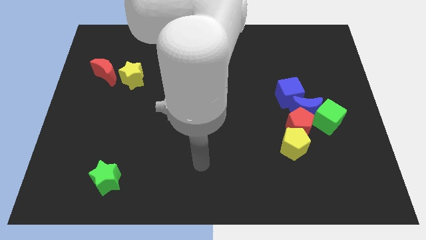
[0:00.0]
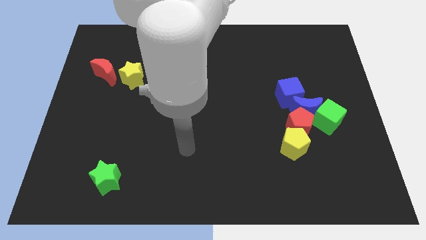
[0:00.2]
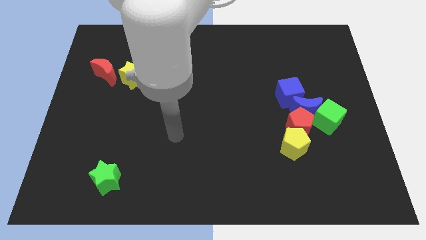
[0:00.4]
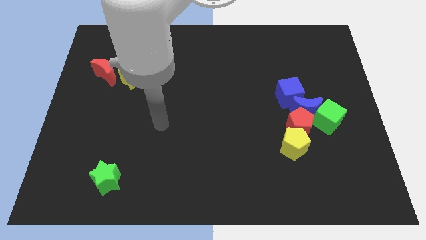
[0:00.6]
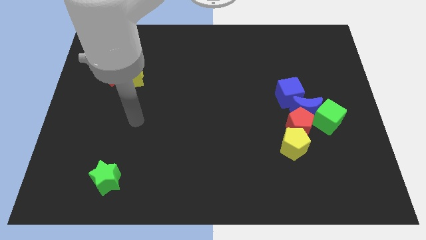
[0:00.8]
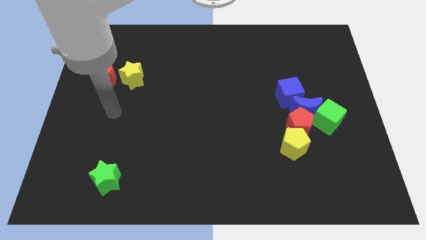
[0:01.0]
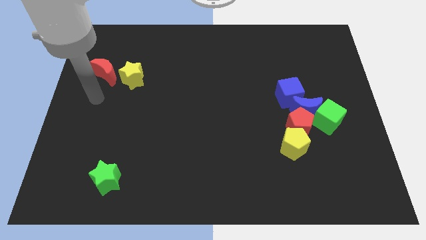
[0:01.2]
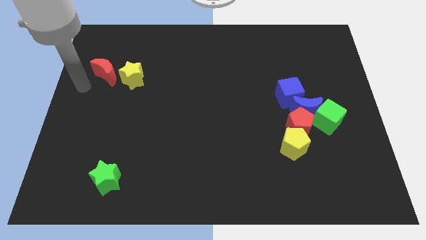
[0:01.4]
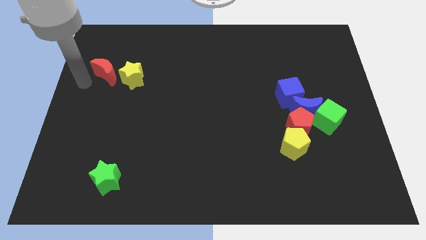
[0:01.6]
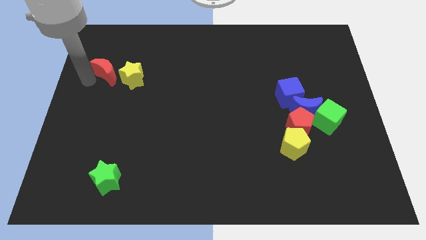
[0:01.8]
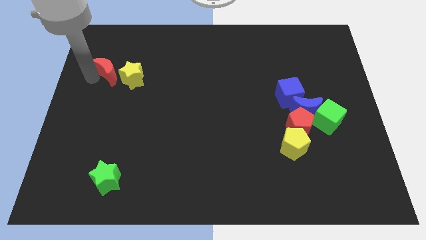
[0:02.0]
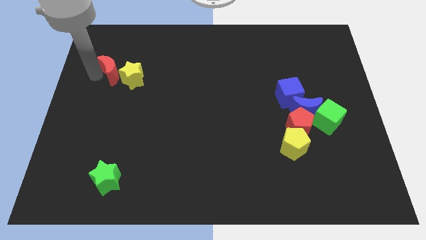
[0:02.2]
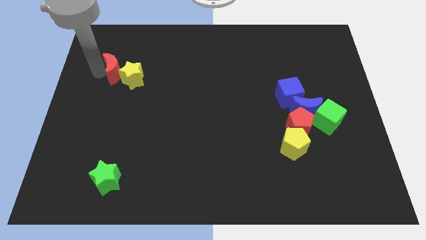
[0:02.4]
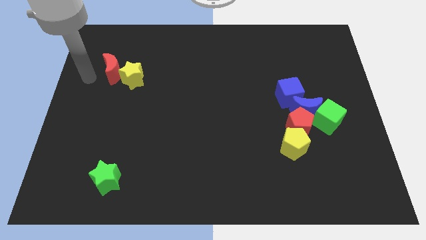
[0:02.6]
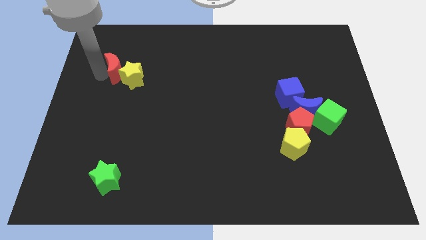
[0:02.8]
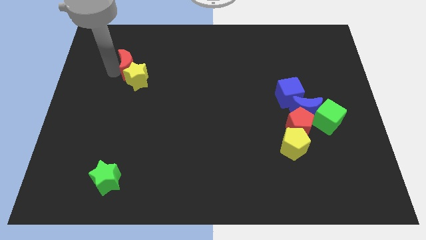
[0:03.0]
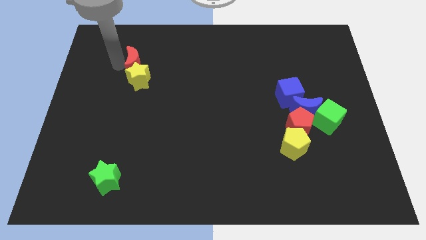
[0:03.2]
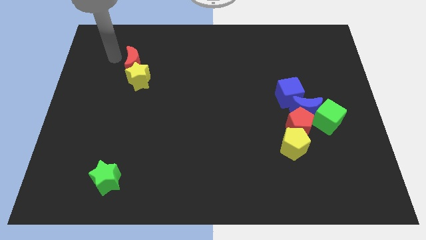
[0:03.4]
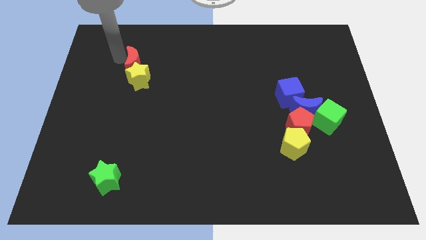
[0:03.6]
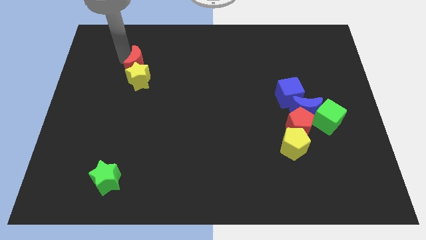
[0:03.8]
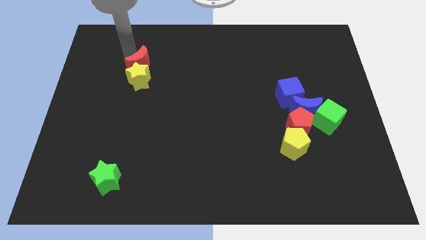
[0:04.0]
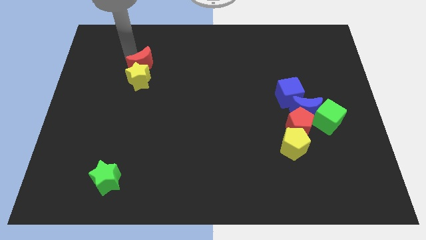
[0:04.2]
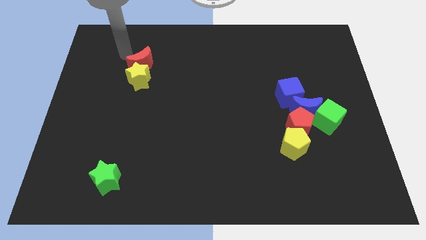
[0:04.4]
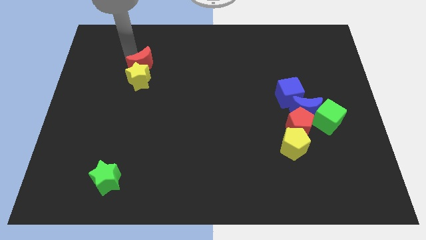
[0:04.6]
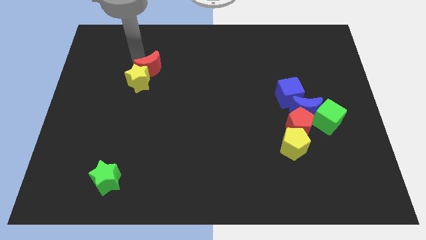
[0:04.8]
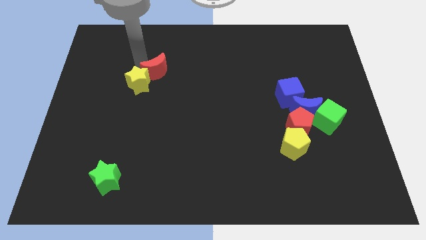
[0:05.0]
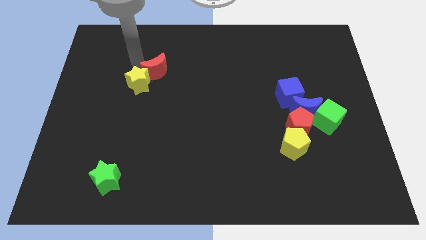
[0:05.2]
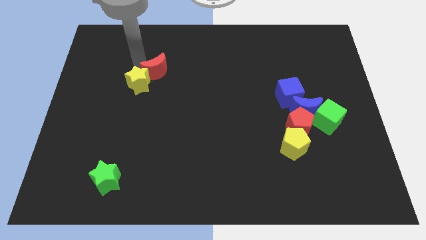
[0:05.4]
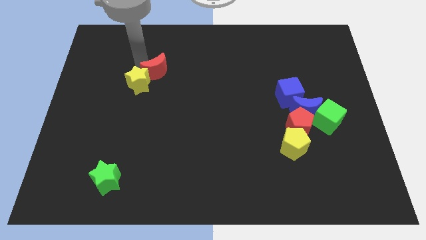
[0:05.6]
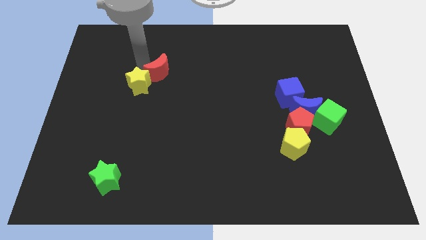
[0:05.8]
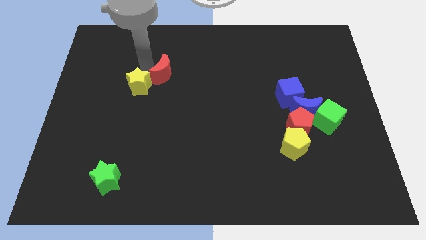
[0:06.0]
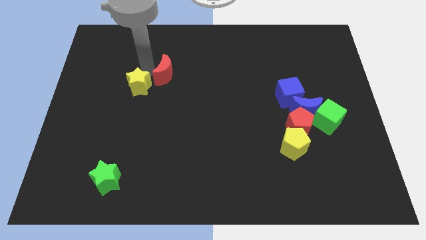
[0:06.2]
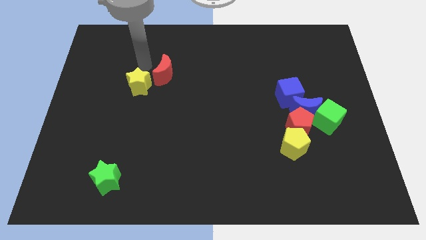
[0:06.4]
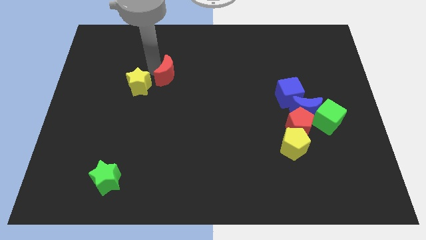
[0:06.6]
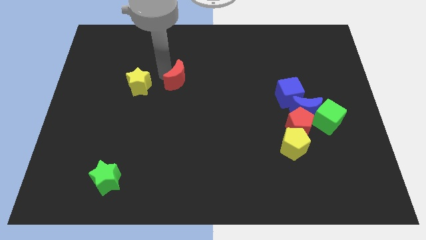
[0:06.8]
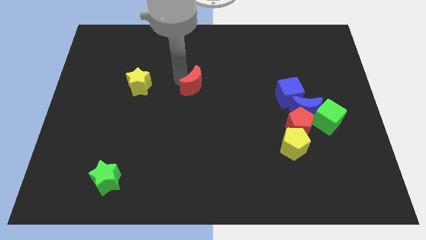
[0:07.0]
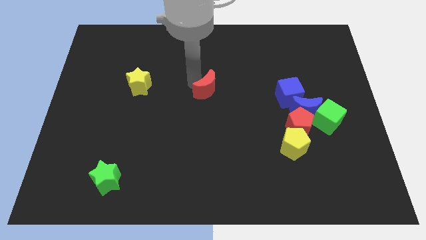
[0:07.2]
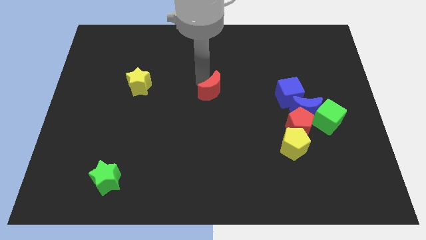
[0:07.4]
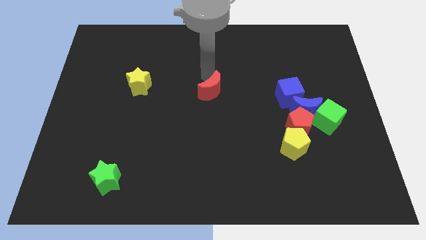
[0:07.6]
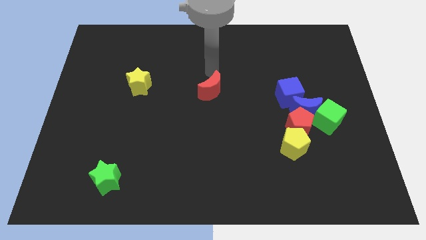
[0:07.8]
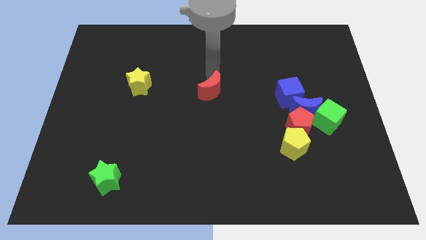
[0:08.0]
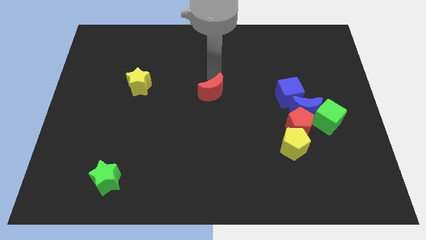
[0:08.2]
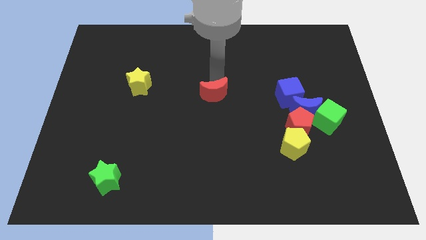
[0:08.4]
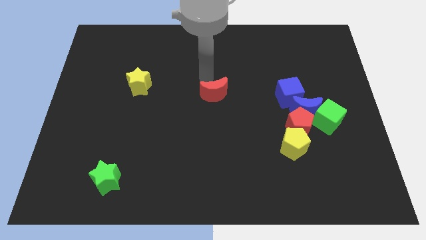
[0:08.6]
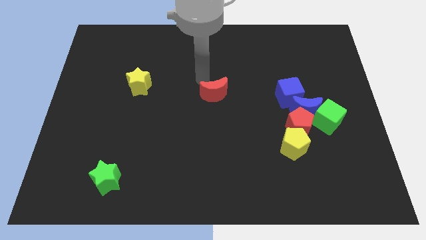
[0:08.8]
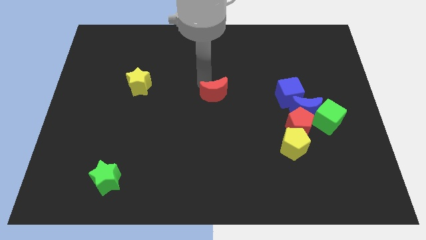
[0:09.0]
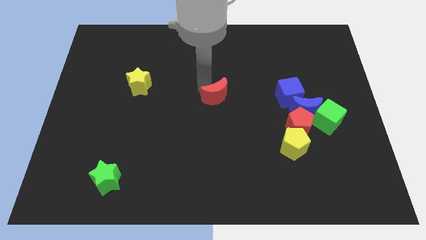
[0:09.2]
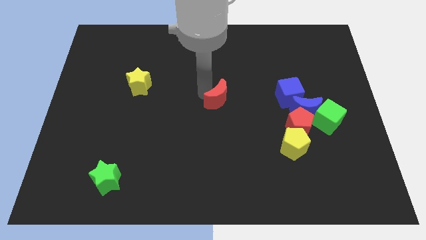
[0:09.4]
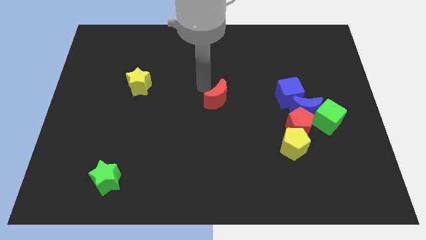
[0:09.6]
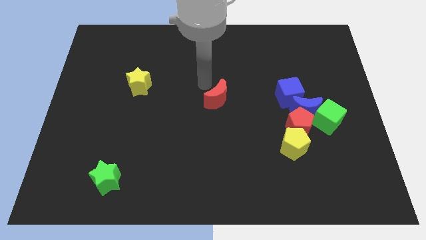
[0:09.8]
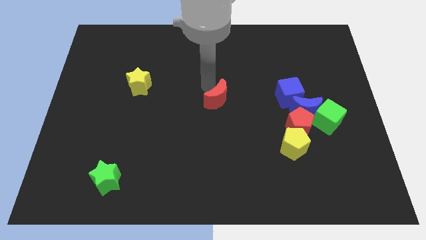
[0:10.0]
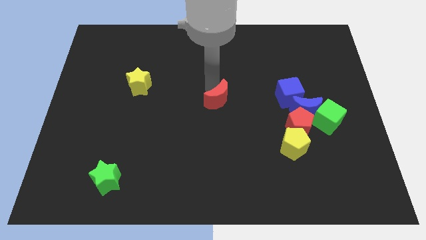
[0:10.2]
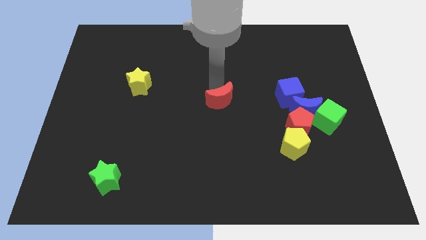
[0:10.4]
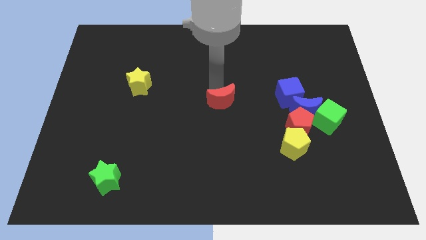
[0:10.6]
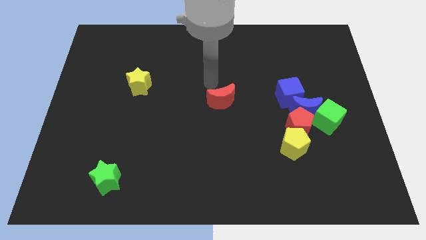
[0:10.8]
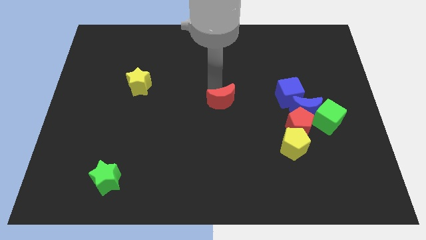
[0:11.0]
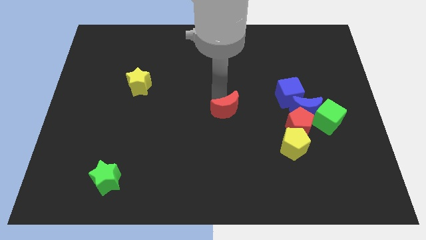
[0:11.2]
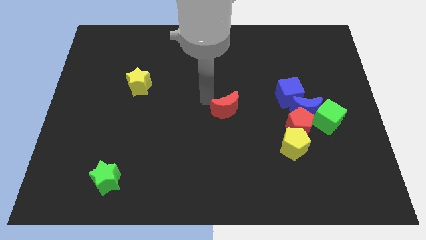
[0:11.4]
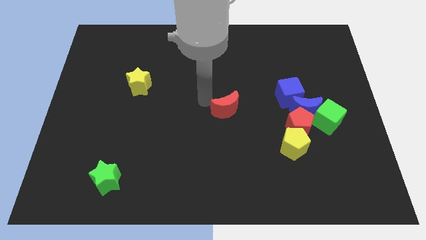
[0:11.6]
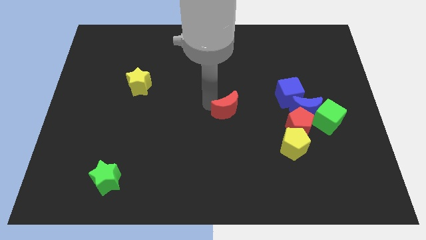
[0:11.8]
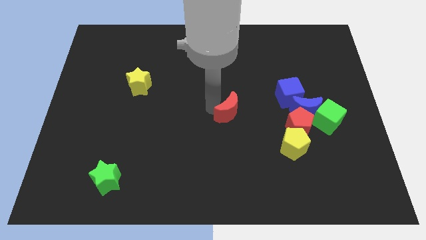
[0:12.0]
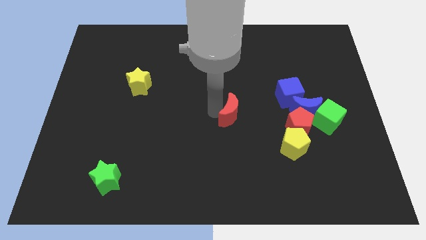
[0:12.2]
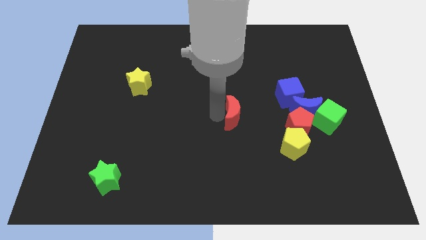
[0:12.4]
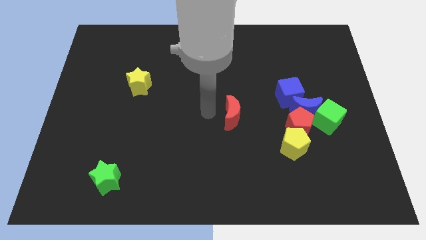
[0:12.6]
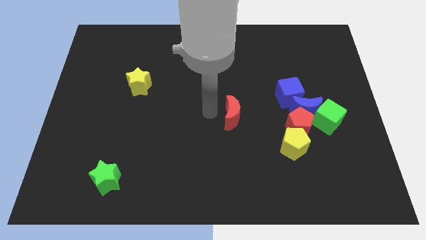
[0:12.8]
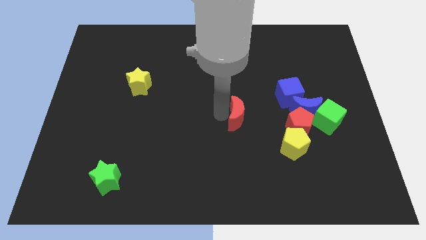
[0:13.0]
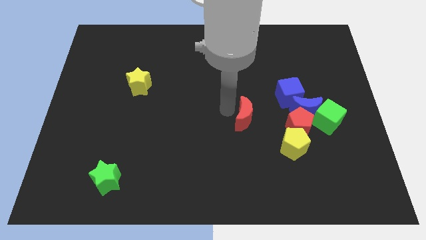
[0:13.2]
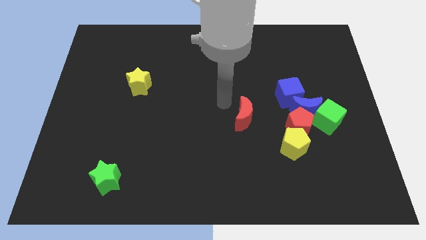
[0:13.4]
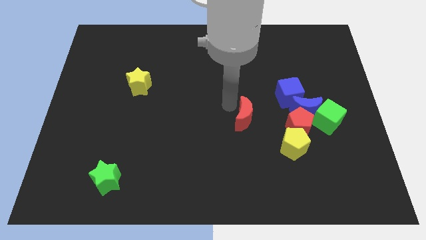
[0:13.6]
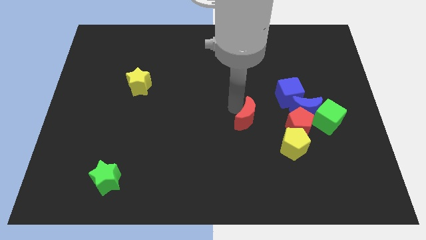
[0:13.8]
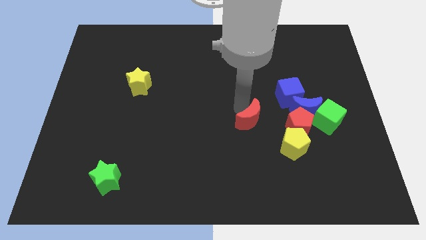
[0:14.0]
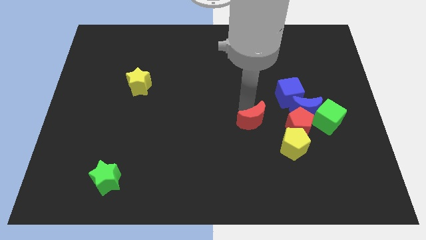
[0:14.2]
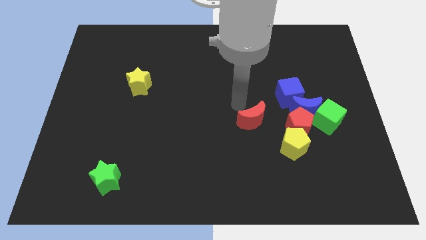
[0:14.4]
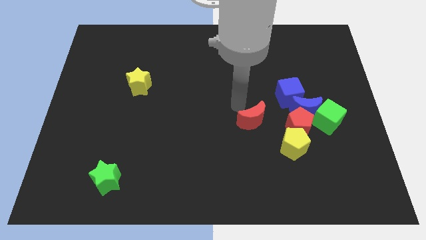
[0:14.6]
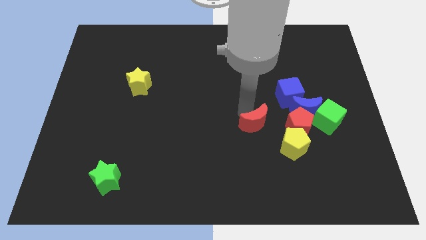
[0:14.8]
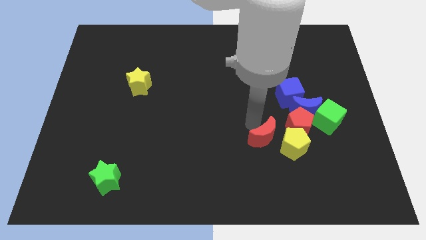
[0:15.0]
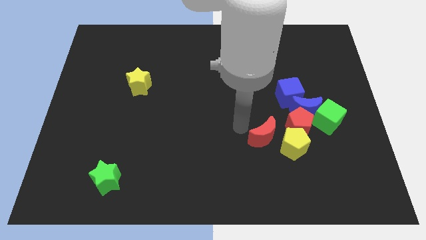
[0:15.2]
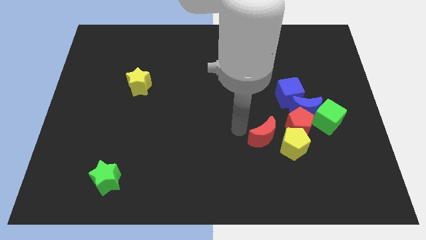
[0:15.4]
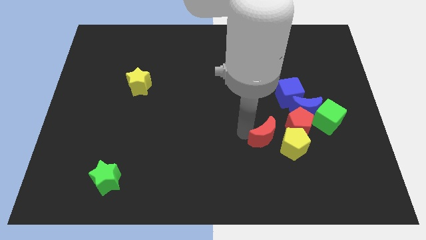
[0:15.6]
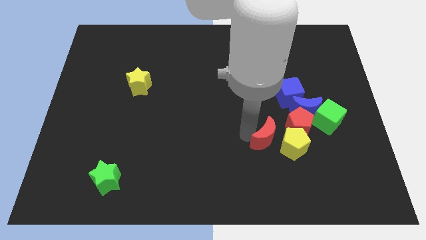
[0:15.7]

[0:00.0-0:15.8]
slide the red moon towards the yellow pentagon
